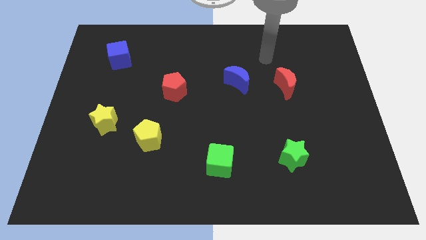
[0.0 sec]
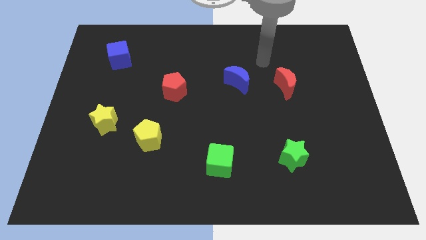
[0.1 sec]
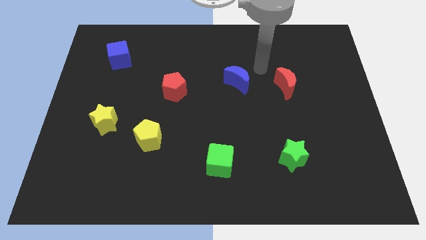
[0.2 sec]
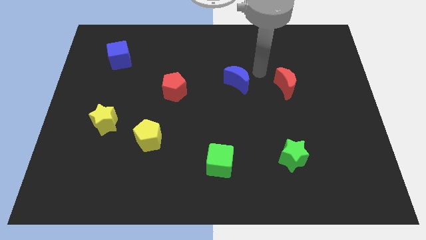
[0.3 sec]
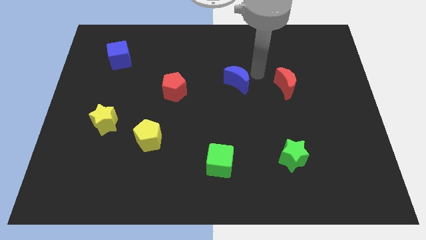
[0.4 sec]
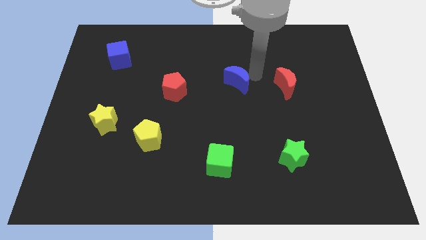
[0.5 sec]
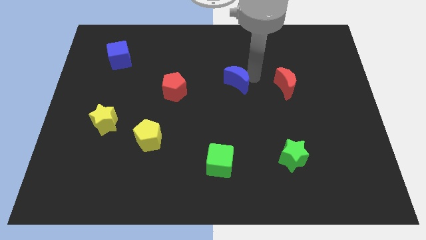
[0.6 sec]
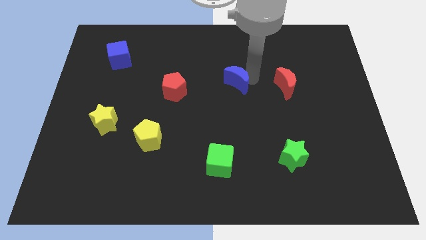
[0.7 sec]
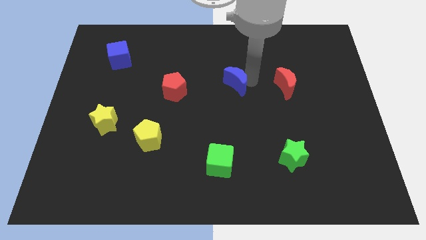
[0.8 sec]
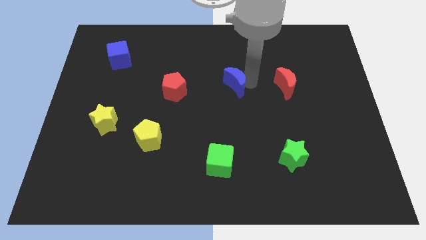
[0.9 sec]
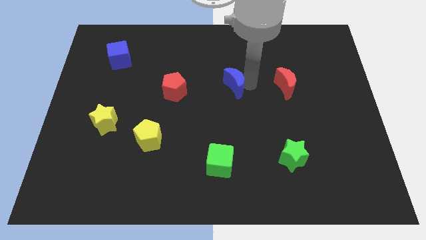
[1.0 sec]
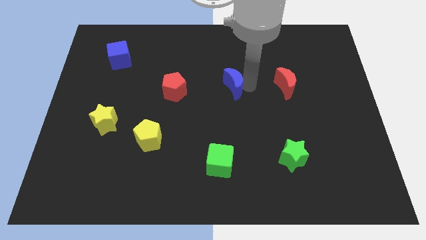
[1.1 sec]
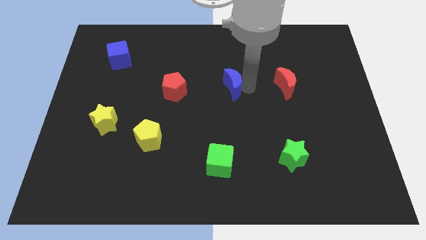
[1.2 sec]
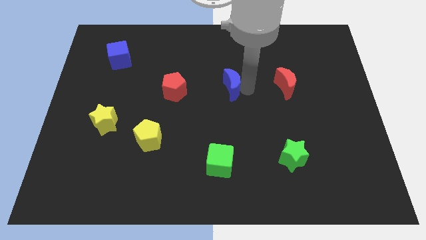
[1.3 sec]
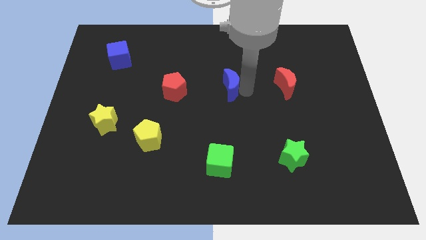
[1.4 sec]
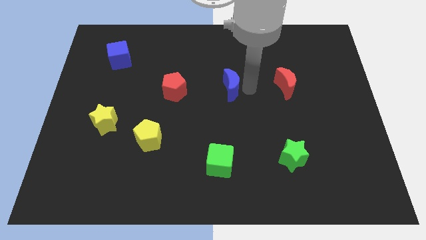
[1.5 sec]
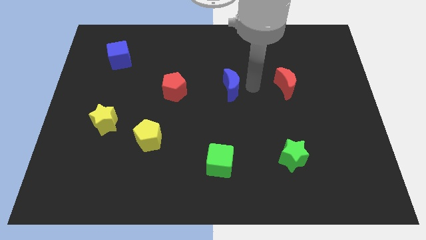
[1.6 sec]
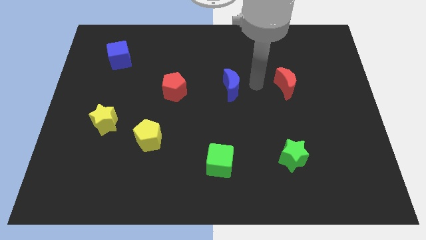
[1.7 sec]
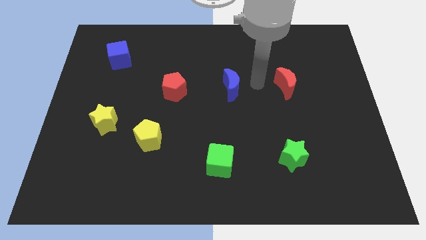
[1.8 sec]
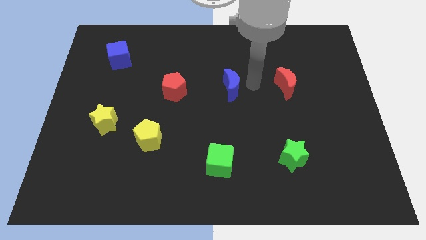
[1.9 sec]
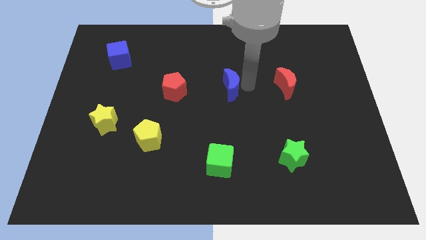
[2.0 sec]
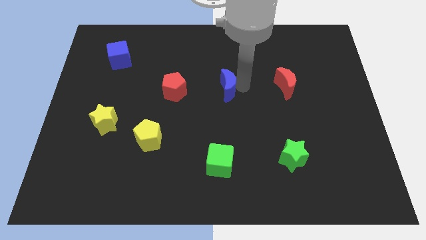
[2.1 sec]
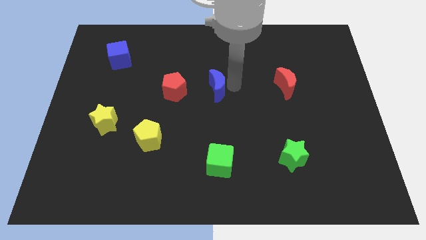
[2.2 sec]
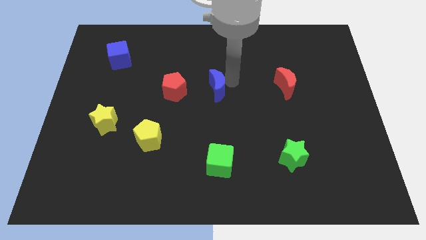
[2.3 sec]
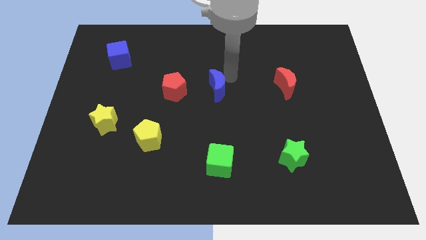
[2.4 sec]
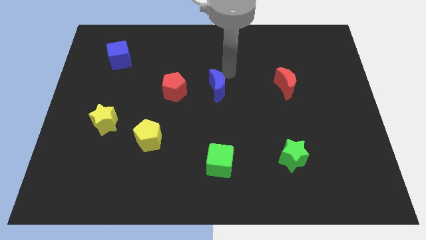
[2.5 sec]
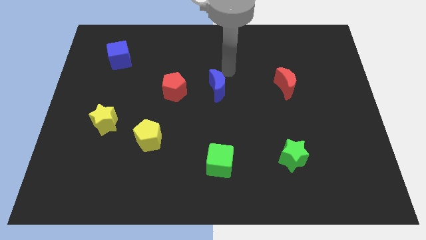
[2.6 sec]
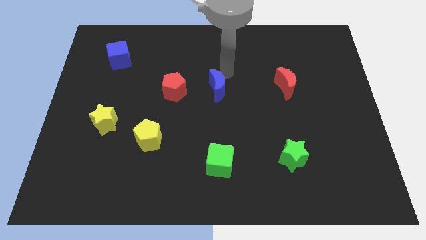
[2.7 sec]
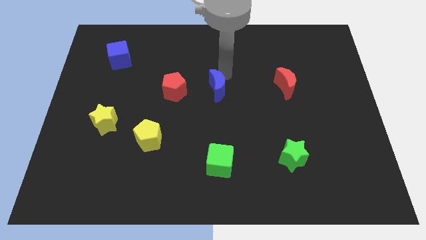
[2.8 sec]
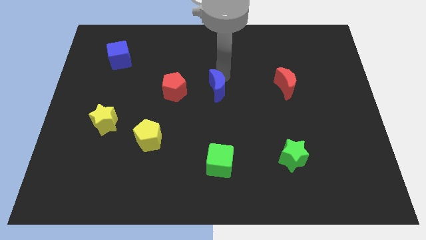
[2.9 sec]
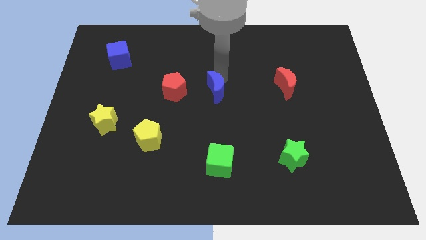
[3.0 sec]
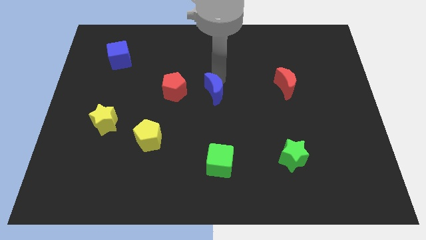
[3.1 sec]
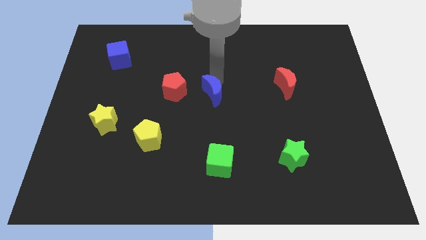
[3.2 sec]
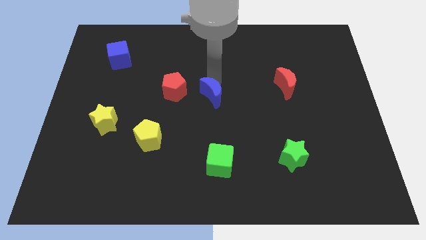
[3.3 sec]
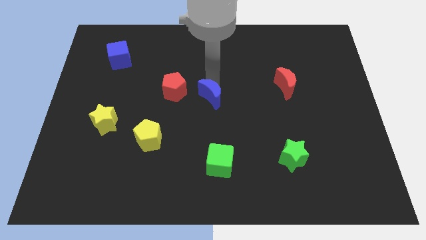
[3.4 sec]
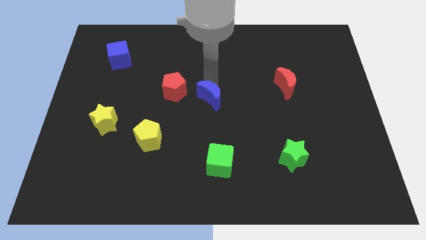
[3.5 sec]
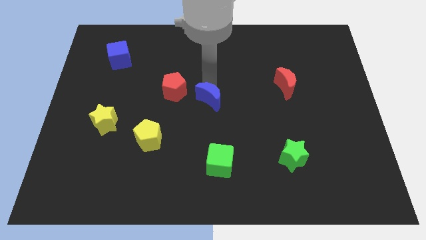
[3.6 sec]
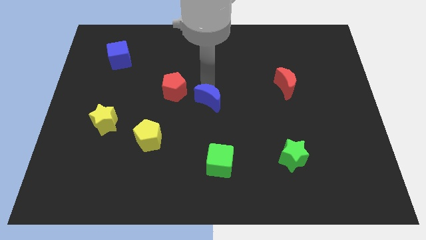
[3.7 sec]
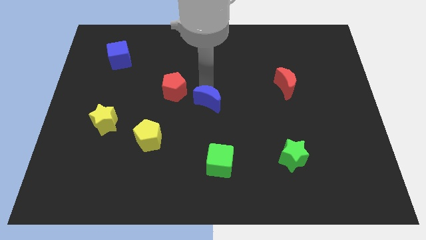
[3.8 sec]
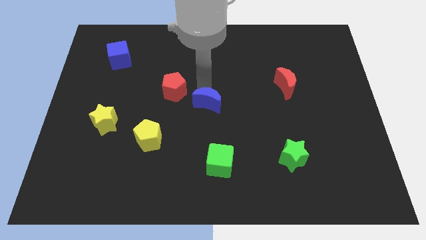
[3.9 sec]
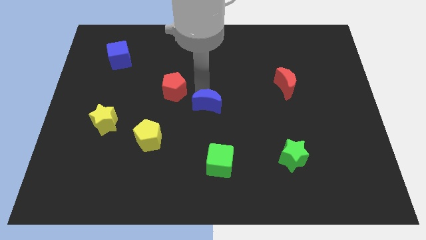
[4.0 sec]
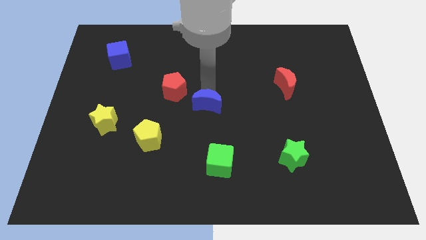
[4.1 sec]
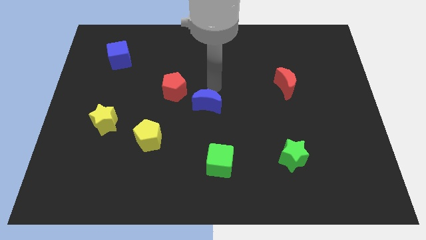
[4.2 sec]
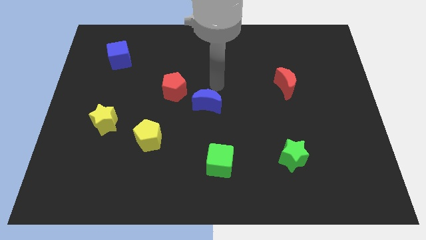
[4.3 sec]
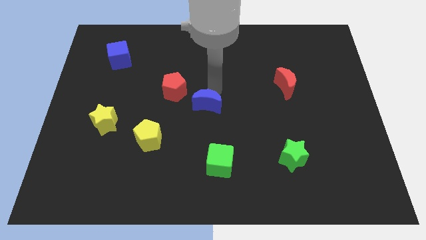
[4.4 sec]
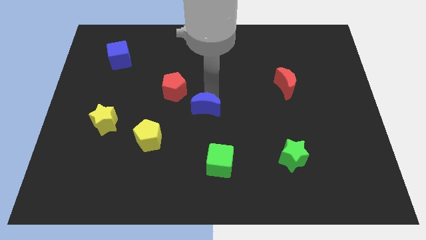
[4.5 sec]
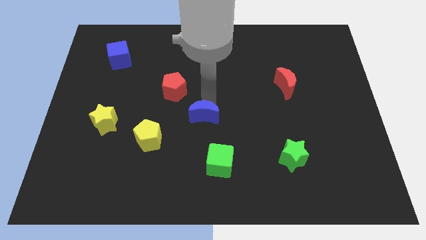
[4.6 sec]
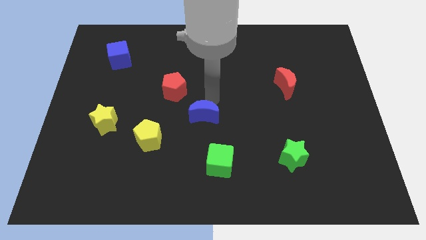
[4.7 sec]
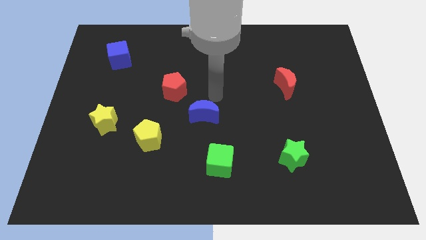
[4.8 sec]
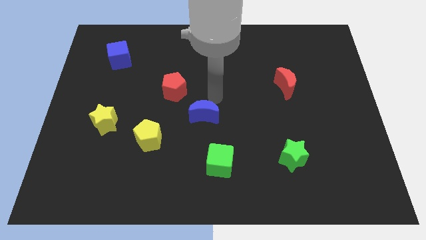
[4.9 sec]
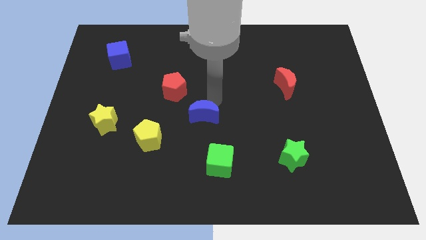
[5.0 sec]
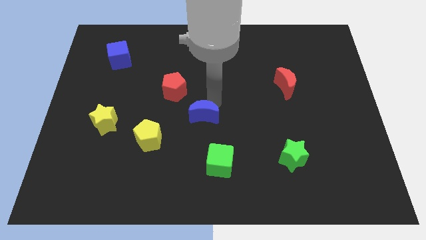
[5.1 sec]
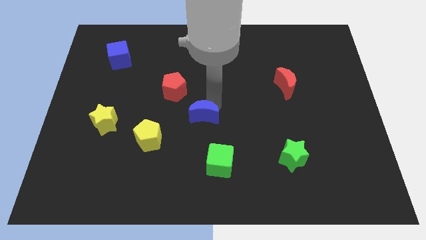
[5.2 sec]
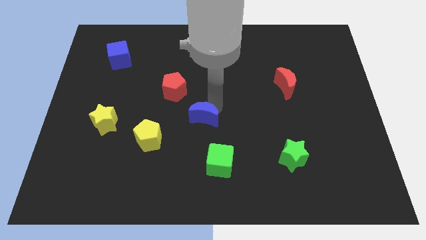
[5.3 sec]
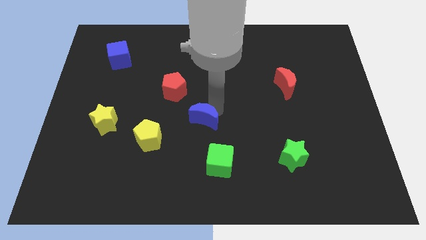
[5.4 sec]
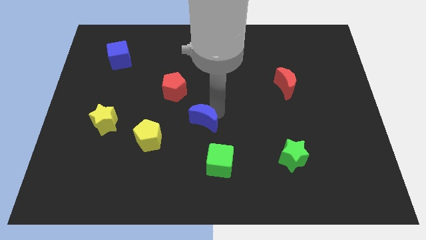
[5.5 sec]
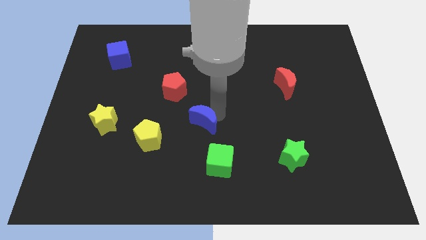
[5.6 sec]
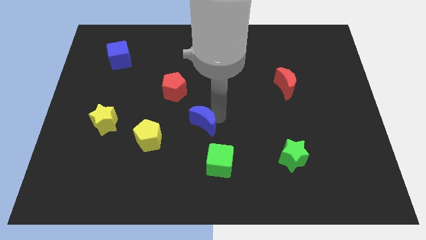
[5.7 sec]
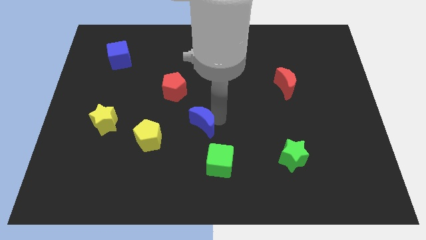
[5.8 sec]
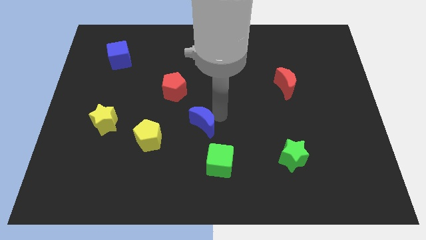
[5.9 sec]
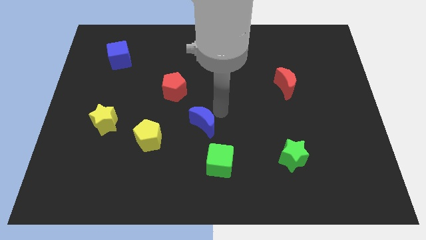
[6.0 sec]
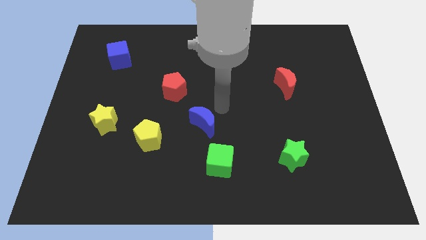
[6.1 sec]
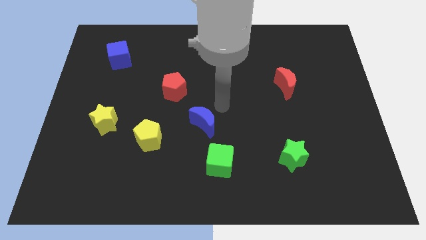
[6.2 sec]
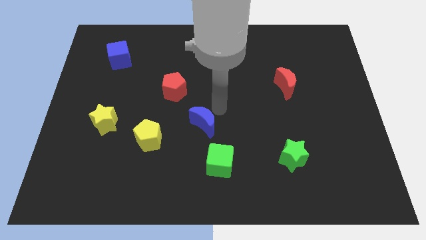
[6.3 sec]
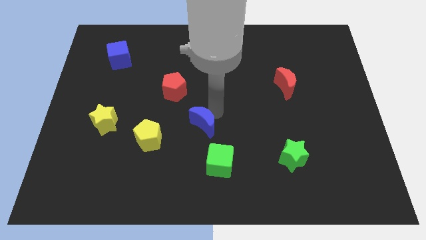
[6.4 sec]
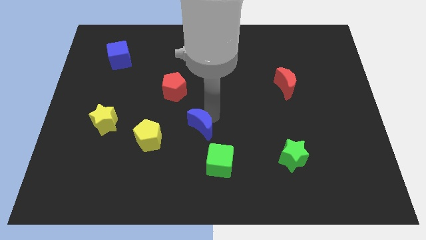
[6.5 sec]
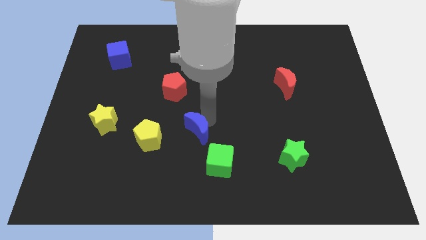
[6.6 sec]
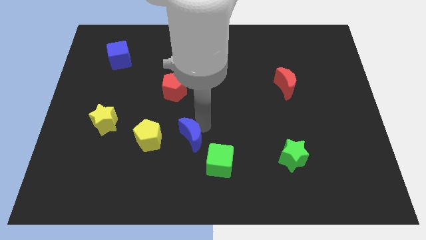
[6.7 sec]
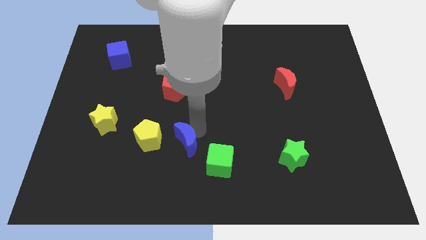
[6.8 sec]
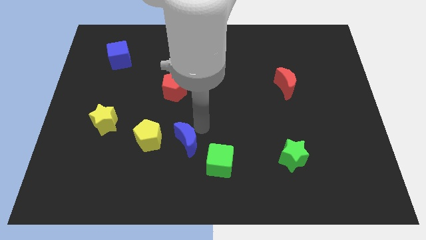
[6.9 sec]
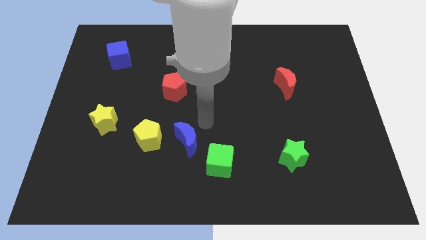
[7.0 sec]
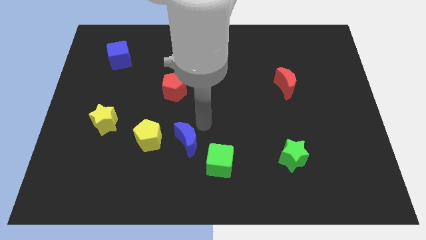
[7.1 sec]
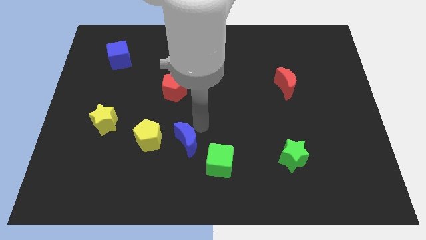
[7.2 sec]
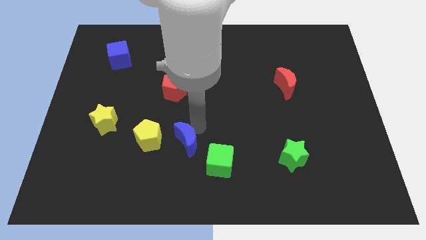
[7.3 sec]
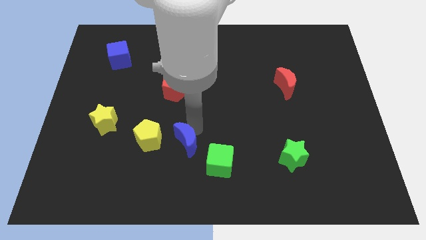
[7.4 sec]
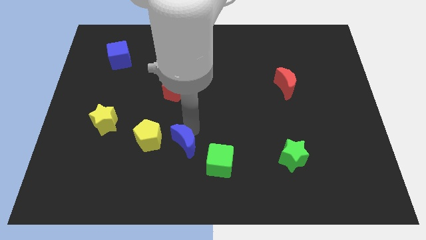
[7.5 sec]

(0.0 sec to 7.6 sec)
push the blue moon to the bottom right of the yellow pentagon

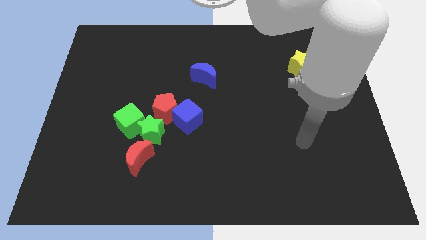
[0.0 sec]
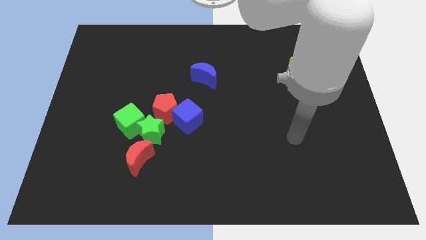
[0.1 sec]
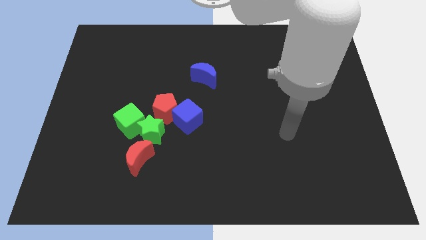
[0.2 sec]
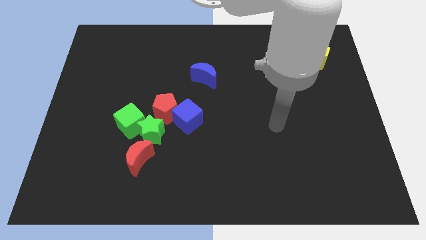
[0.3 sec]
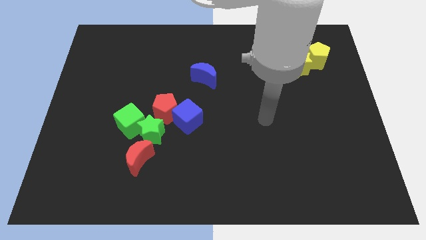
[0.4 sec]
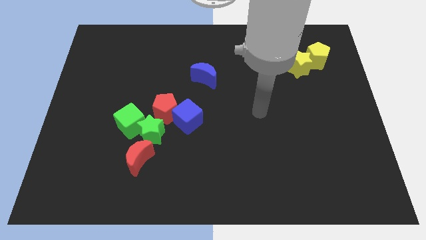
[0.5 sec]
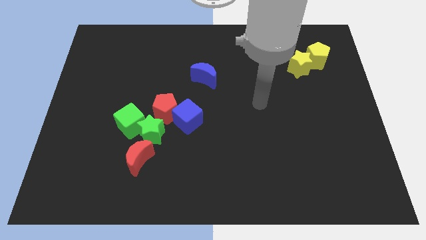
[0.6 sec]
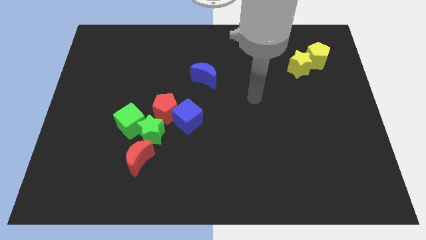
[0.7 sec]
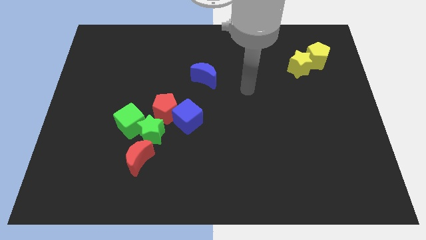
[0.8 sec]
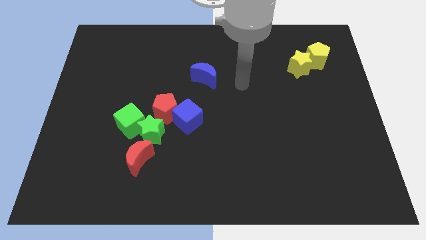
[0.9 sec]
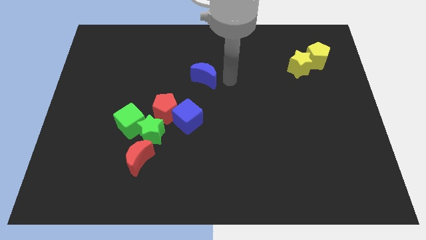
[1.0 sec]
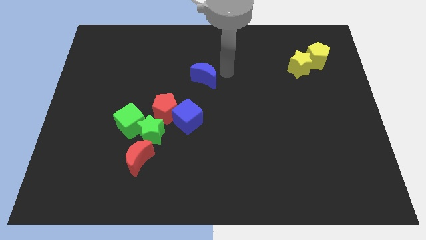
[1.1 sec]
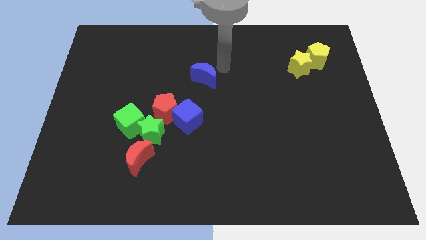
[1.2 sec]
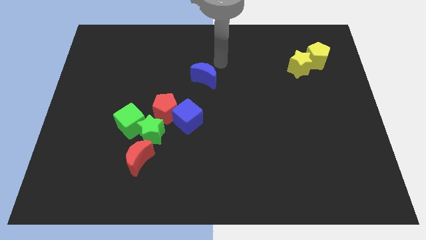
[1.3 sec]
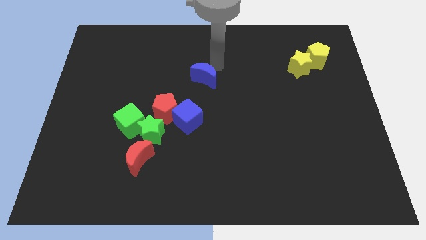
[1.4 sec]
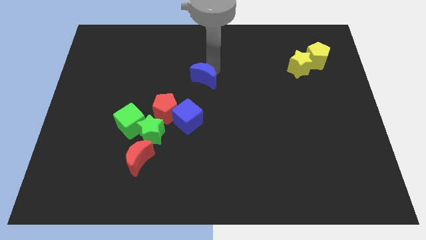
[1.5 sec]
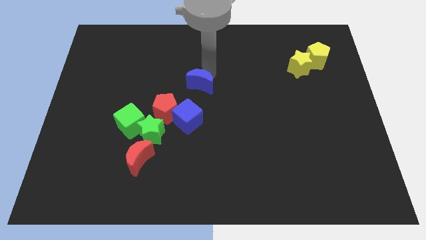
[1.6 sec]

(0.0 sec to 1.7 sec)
move the blue moon to the top right of the red pentagon
